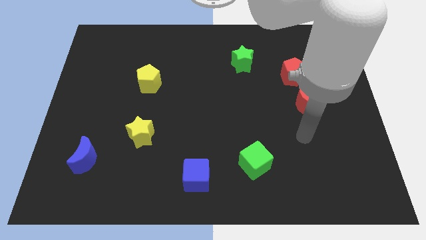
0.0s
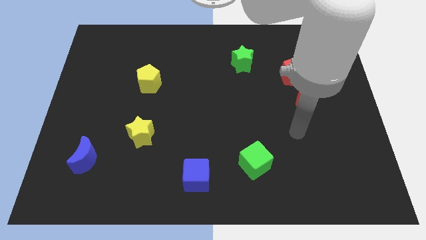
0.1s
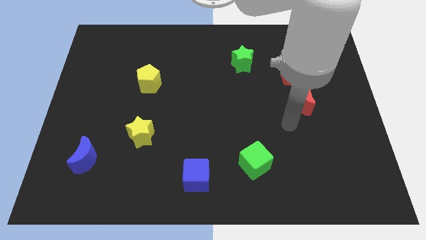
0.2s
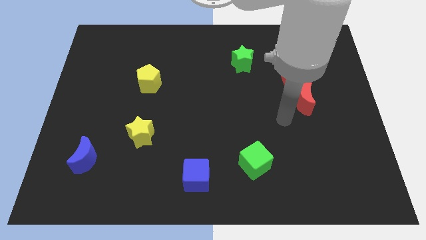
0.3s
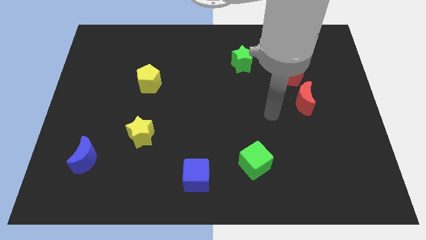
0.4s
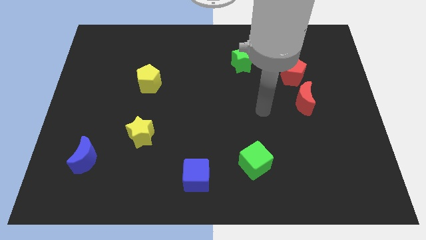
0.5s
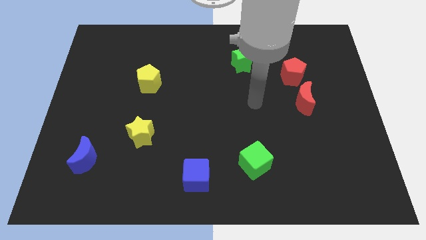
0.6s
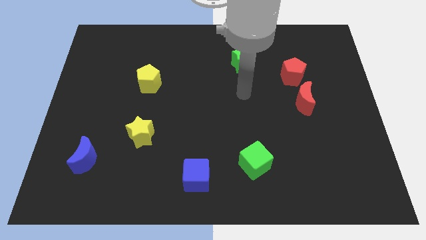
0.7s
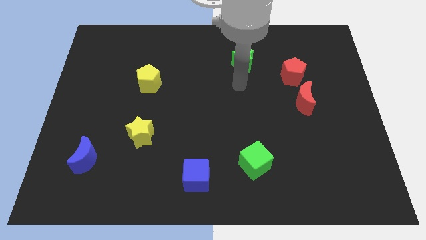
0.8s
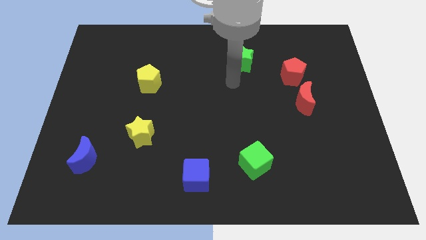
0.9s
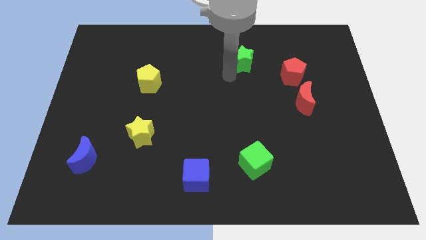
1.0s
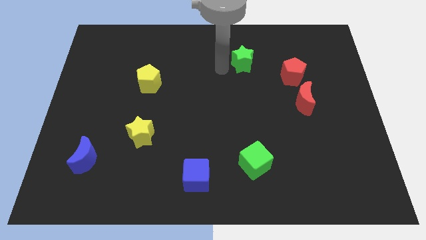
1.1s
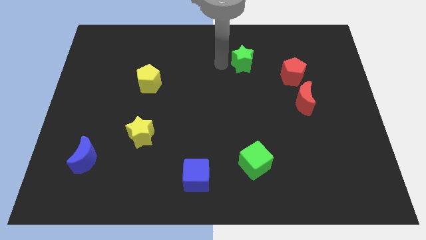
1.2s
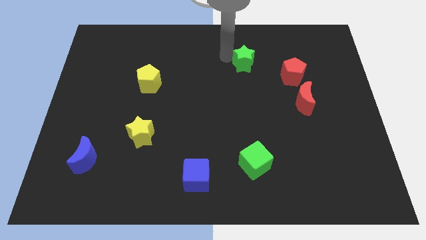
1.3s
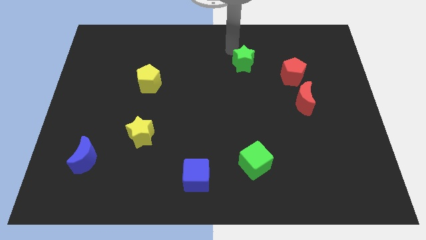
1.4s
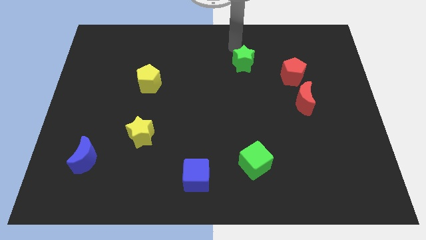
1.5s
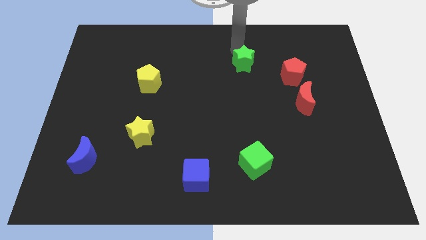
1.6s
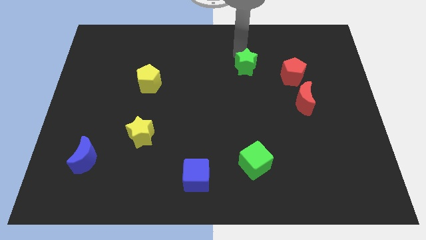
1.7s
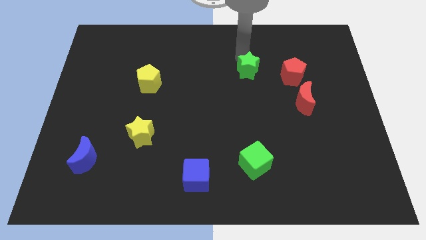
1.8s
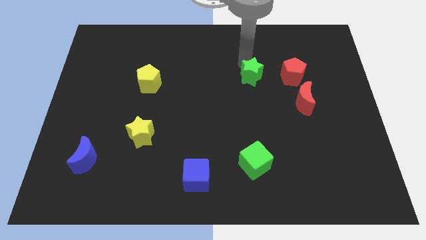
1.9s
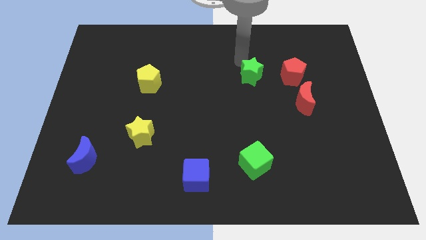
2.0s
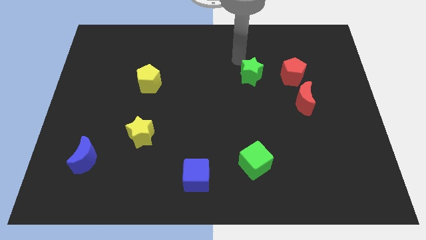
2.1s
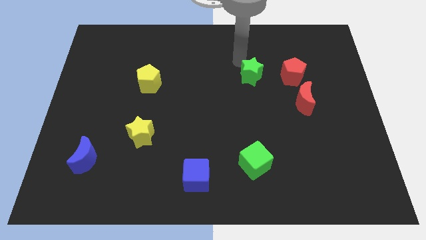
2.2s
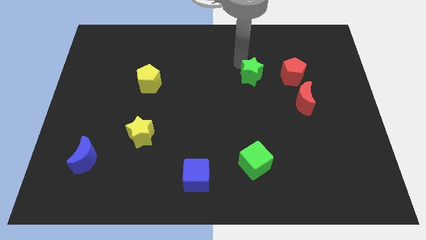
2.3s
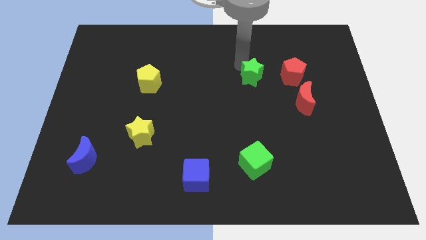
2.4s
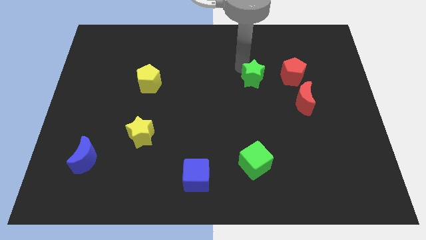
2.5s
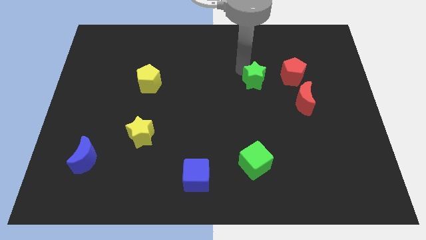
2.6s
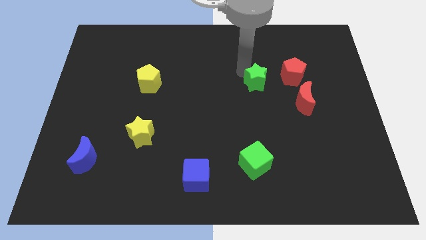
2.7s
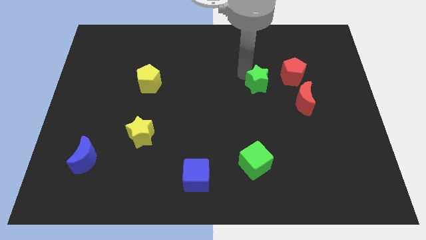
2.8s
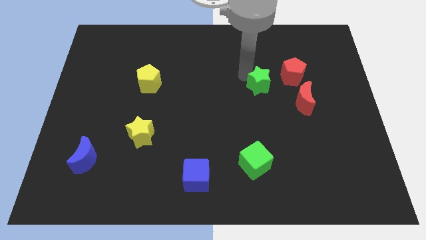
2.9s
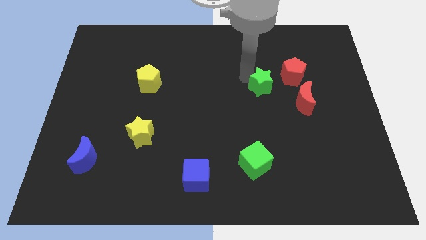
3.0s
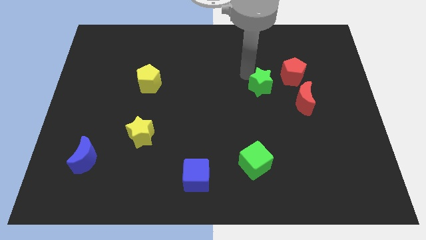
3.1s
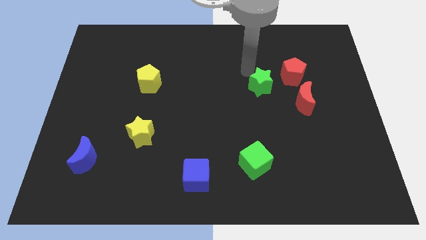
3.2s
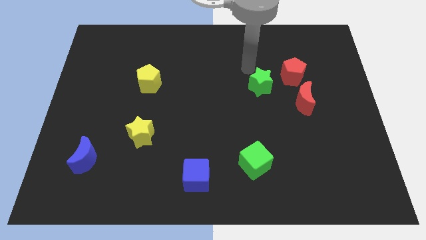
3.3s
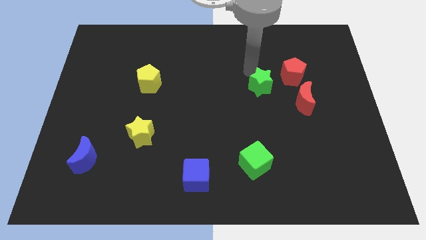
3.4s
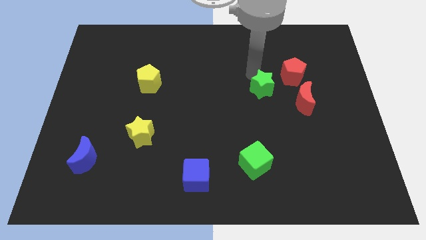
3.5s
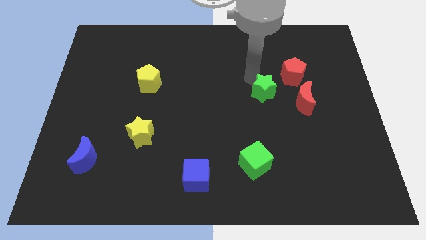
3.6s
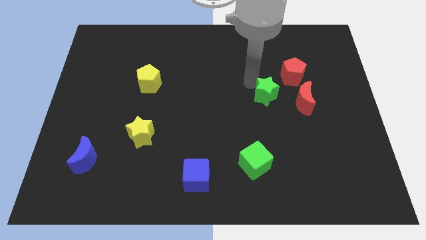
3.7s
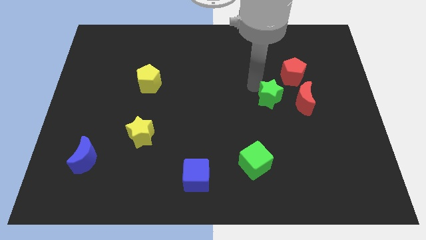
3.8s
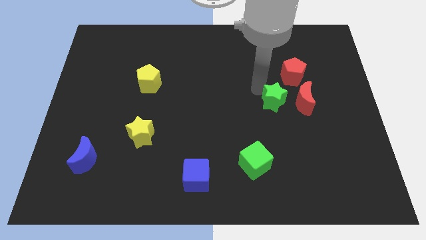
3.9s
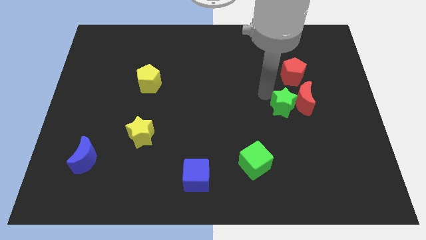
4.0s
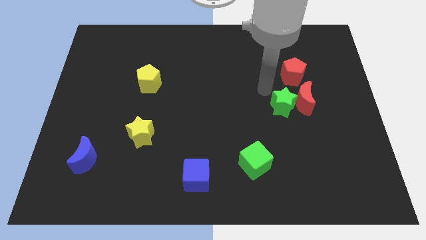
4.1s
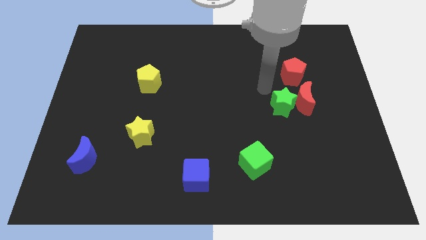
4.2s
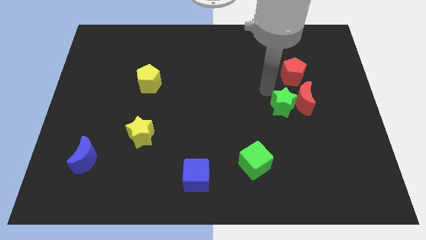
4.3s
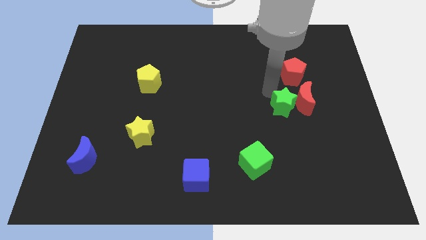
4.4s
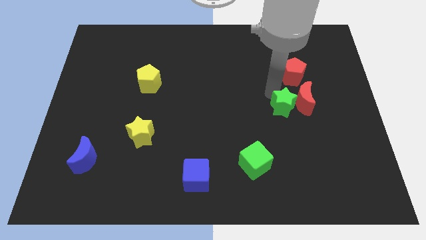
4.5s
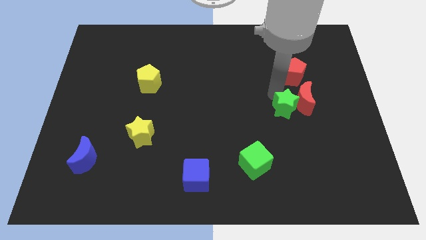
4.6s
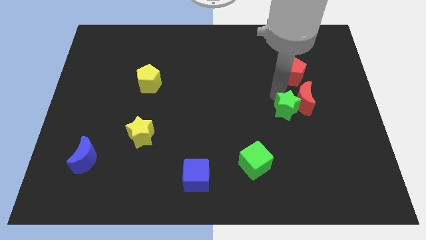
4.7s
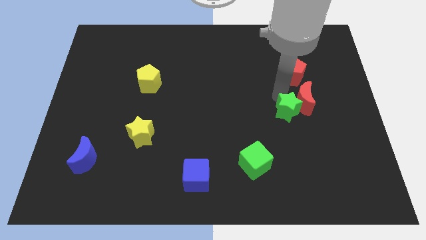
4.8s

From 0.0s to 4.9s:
put the green star to the bottom of the red moon

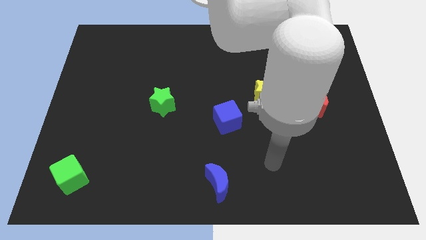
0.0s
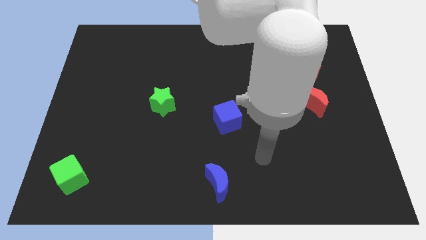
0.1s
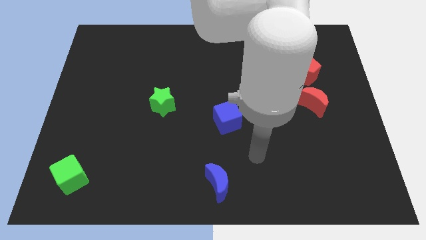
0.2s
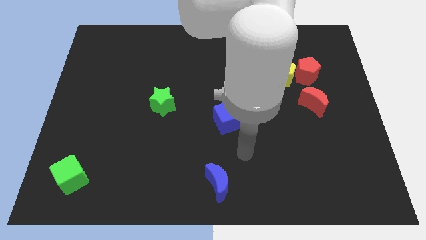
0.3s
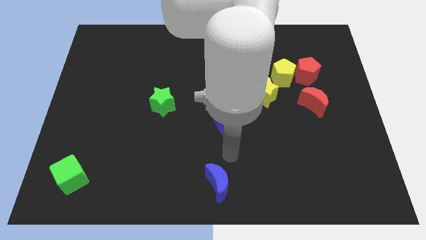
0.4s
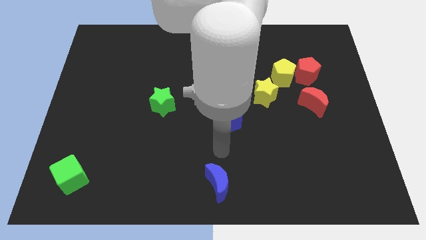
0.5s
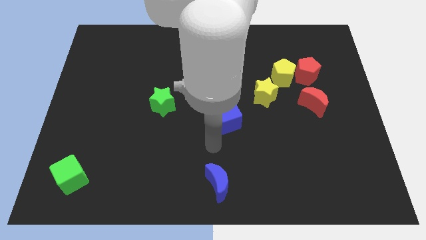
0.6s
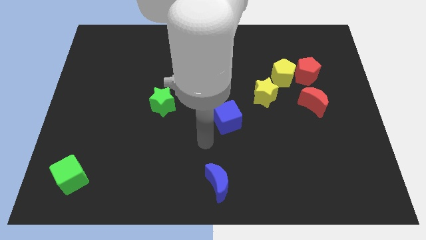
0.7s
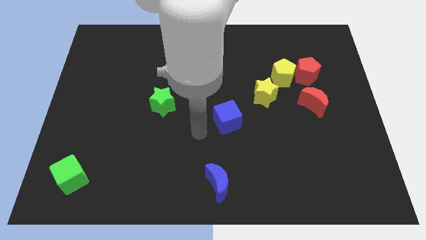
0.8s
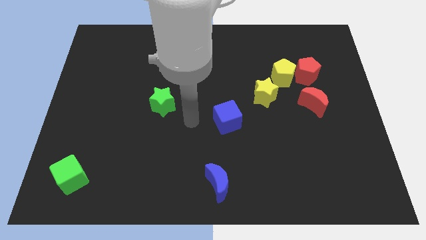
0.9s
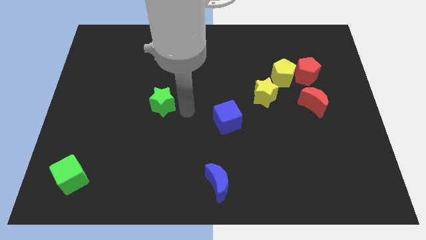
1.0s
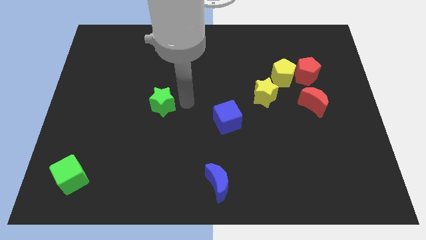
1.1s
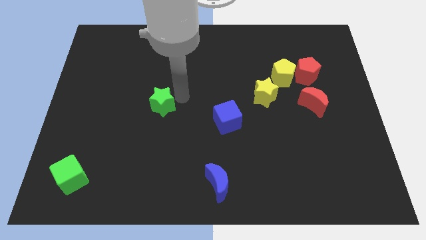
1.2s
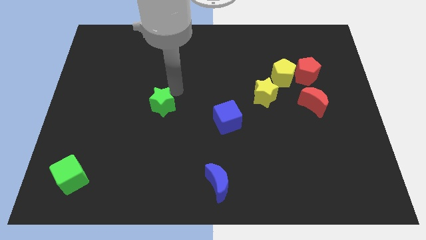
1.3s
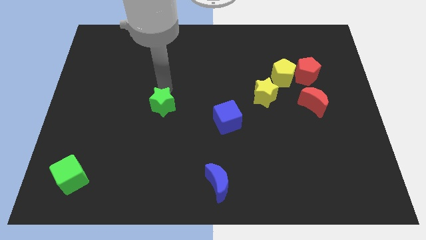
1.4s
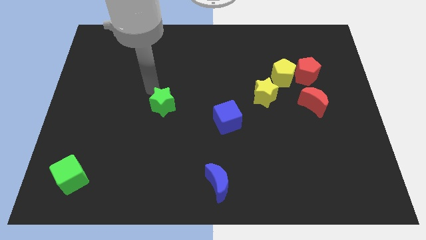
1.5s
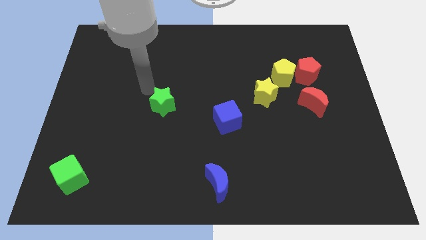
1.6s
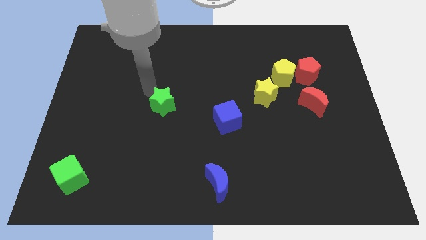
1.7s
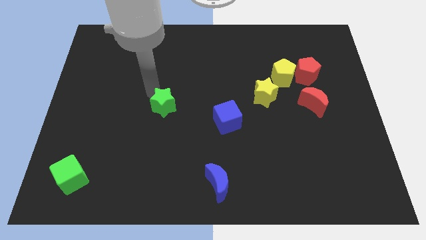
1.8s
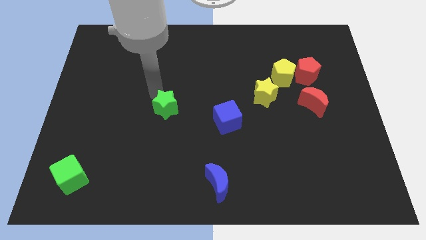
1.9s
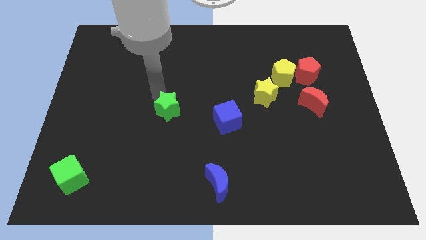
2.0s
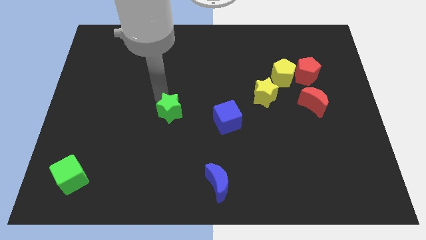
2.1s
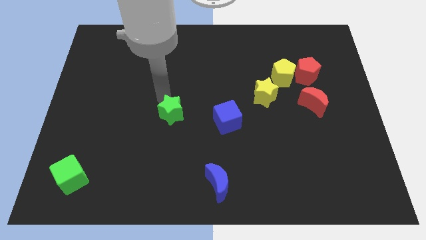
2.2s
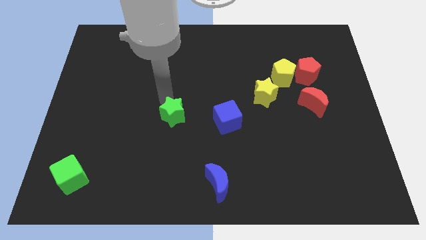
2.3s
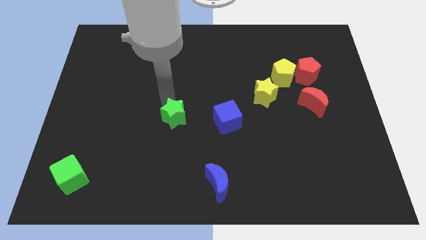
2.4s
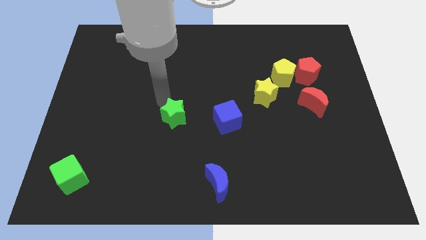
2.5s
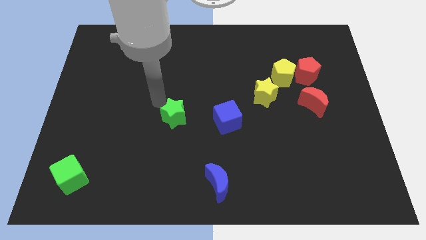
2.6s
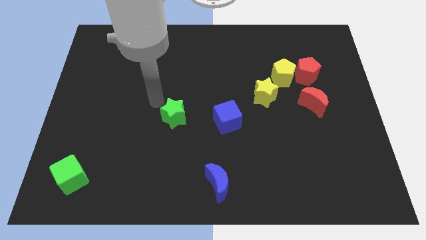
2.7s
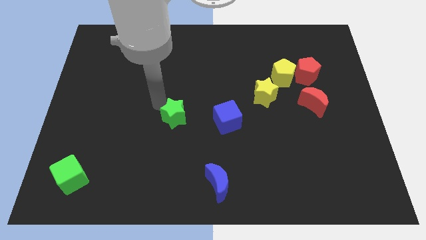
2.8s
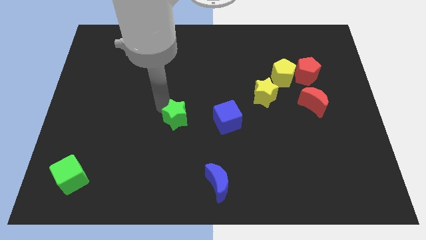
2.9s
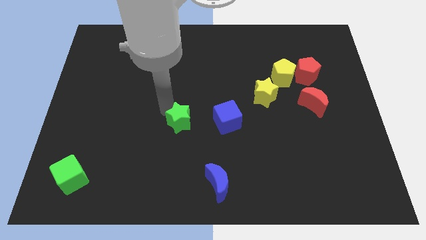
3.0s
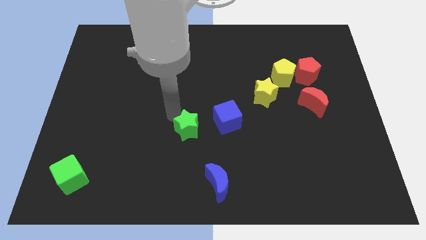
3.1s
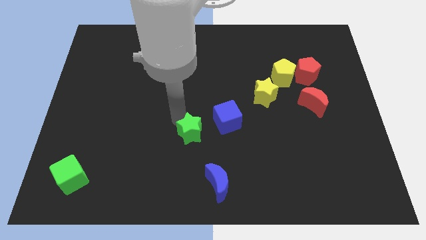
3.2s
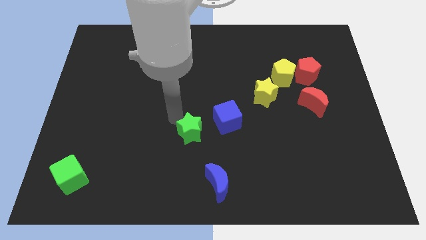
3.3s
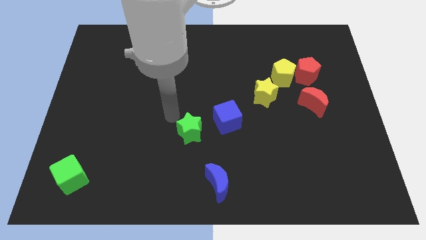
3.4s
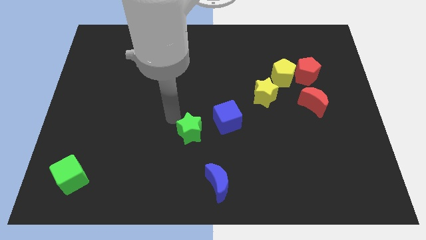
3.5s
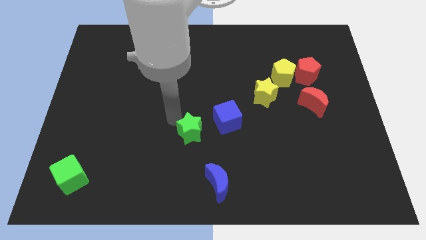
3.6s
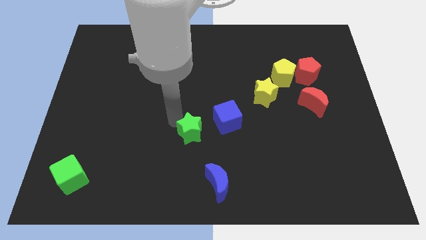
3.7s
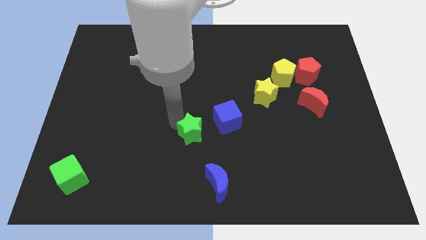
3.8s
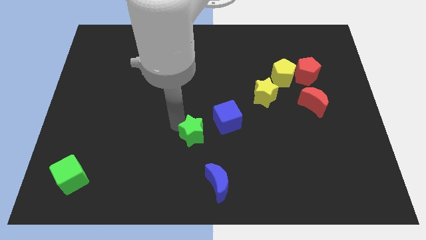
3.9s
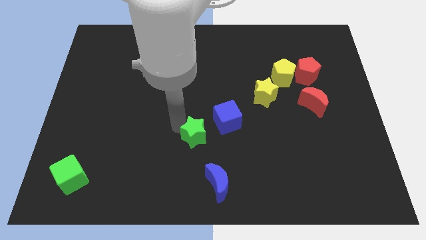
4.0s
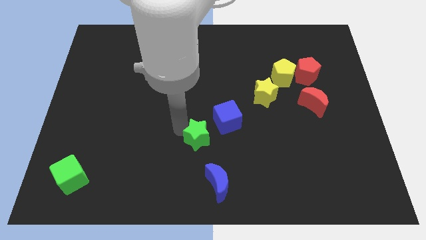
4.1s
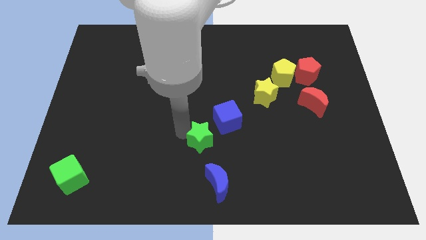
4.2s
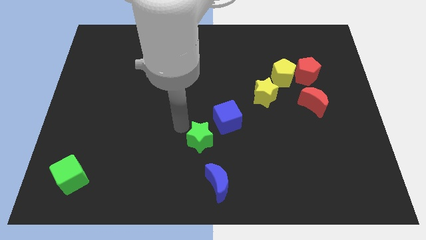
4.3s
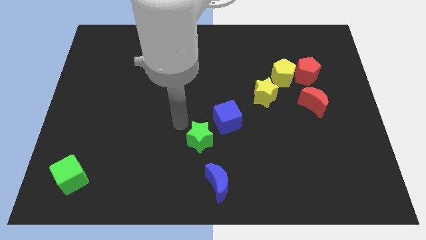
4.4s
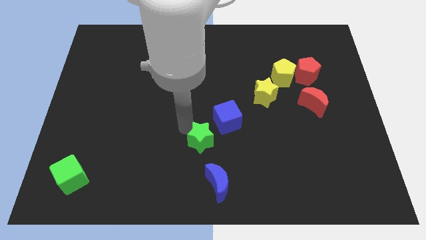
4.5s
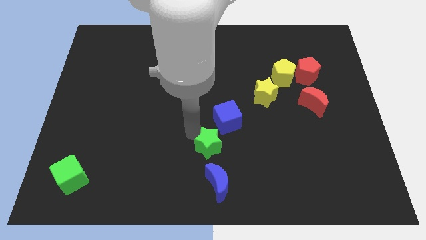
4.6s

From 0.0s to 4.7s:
push the green star to the bottom side of the blue cube
